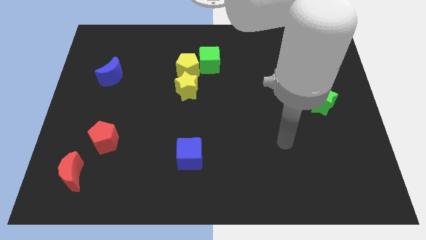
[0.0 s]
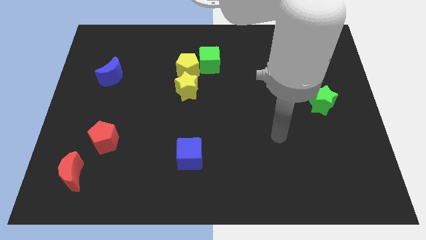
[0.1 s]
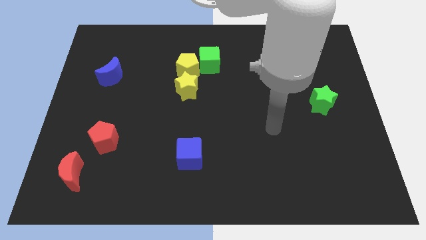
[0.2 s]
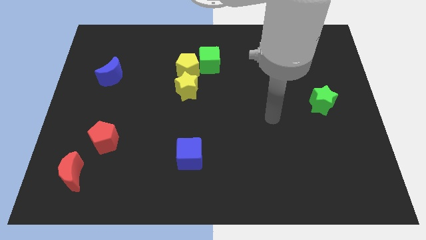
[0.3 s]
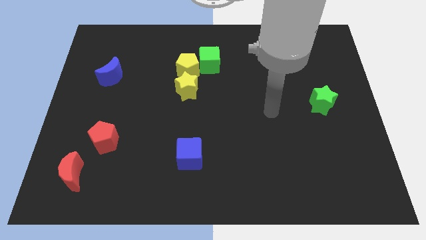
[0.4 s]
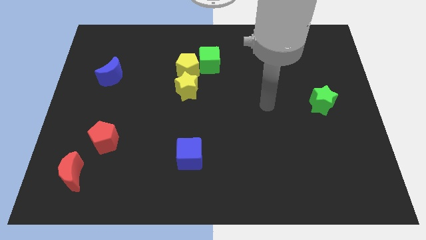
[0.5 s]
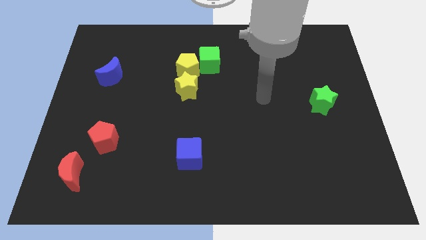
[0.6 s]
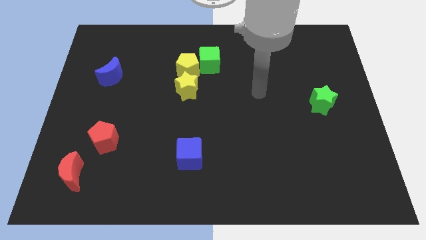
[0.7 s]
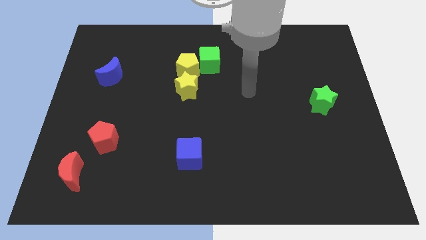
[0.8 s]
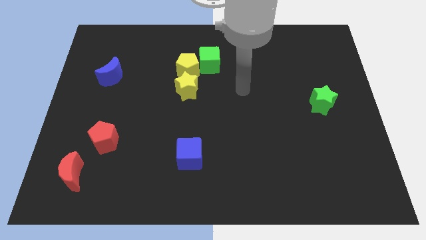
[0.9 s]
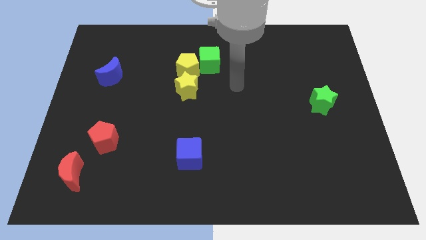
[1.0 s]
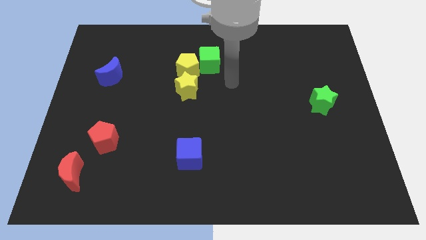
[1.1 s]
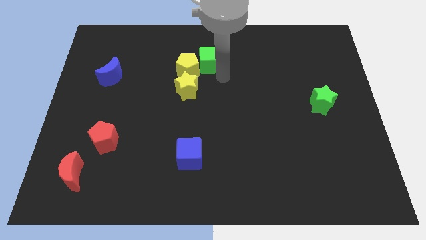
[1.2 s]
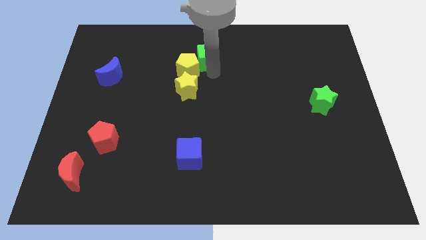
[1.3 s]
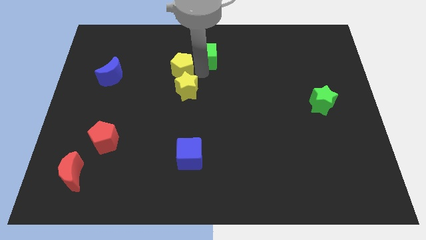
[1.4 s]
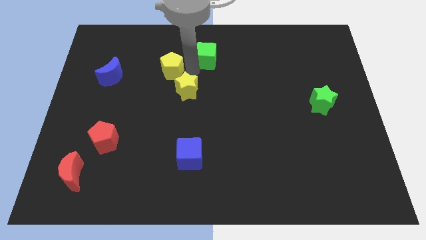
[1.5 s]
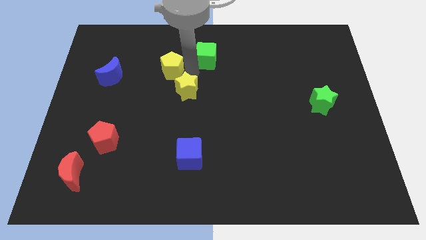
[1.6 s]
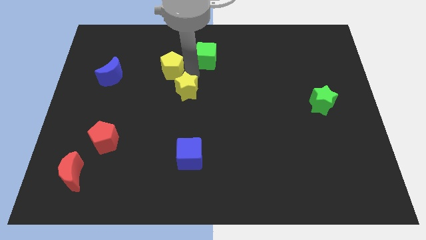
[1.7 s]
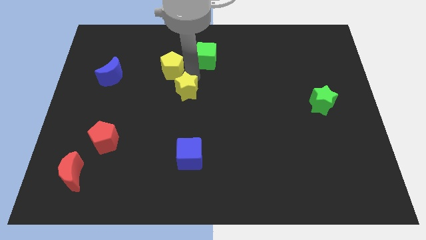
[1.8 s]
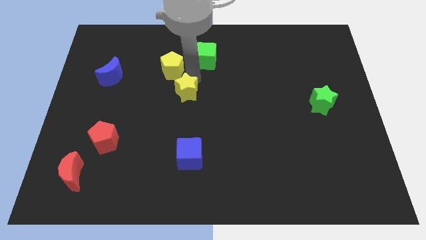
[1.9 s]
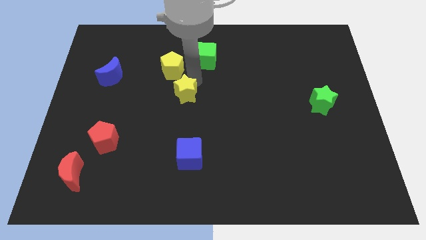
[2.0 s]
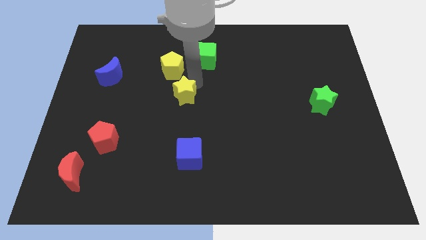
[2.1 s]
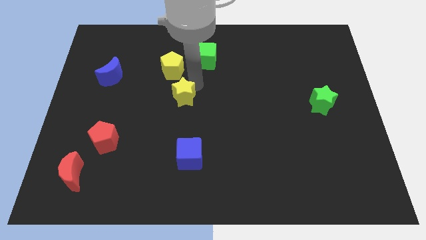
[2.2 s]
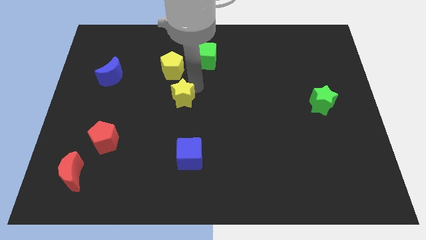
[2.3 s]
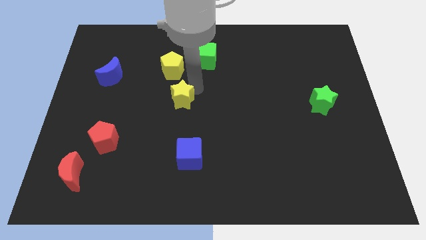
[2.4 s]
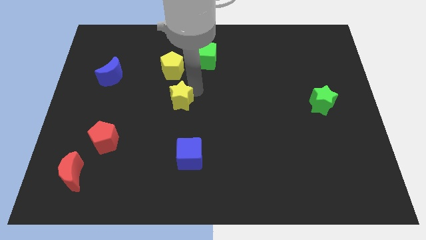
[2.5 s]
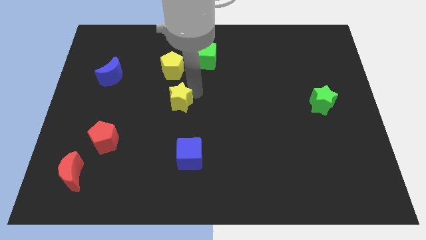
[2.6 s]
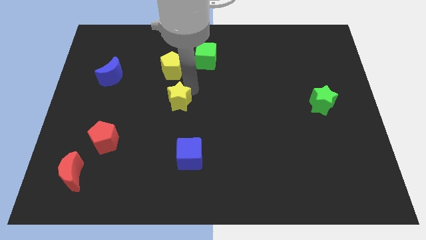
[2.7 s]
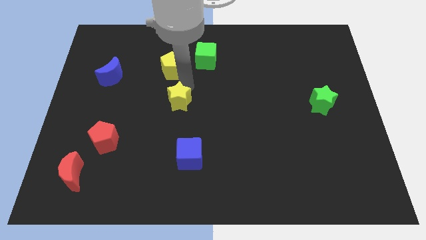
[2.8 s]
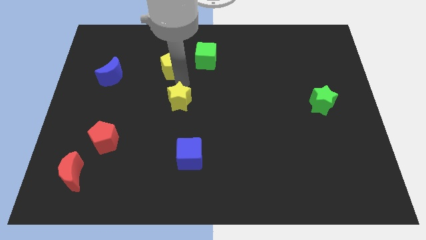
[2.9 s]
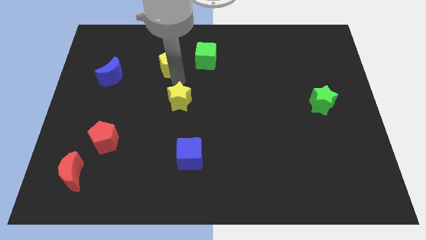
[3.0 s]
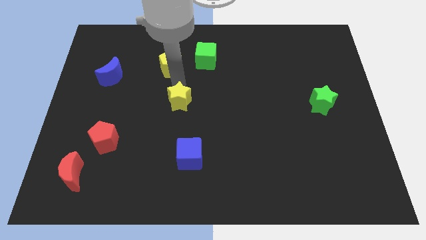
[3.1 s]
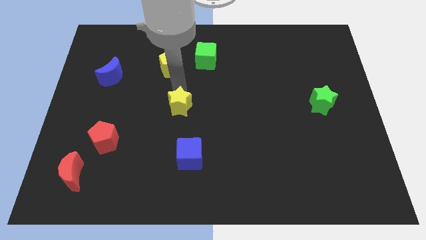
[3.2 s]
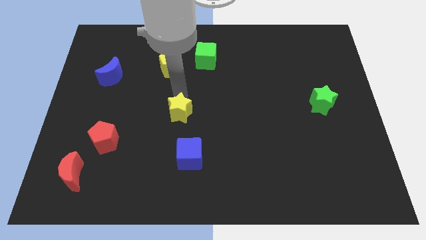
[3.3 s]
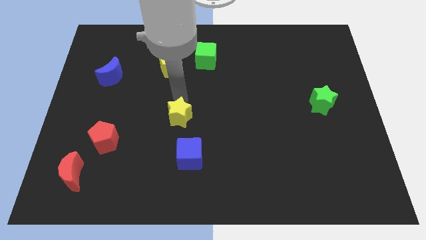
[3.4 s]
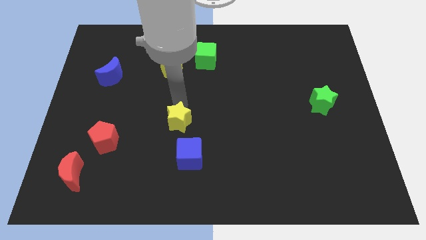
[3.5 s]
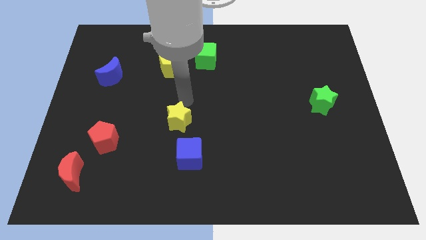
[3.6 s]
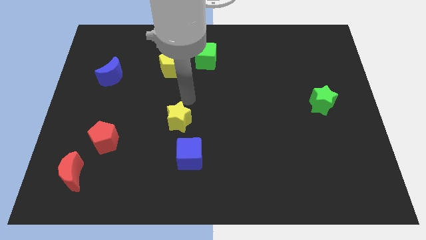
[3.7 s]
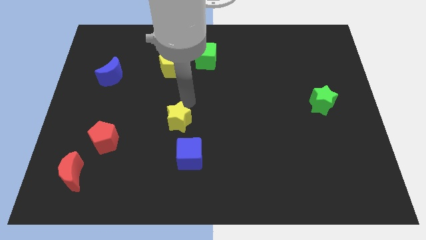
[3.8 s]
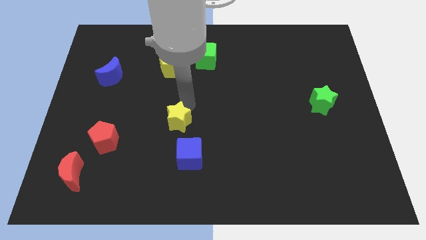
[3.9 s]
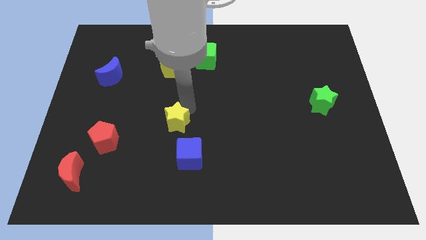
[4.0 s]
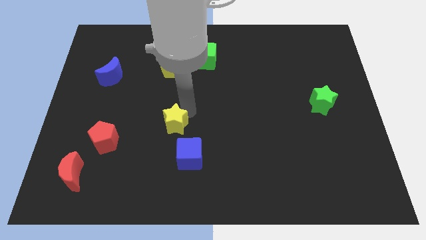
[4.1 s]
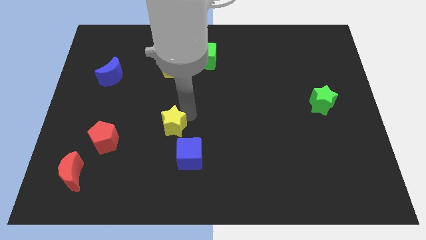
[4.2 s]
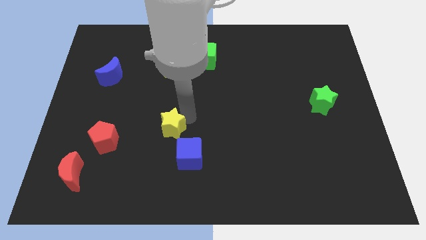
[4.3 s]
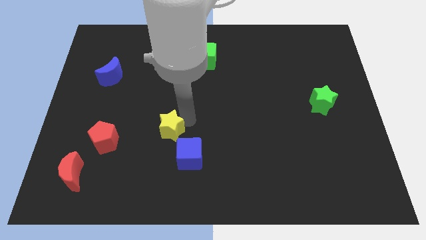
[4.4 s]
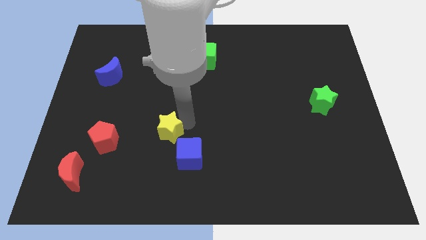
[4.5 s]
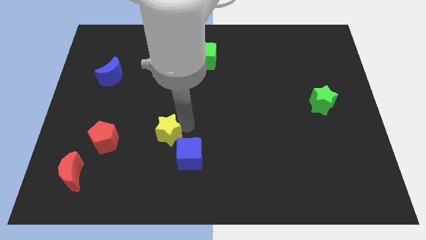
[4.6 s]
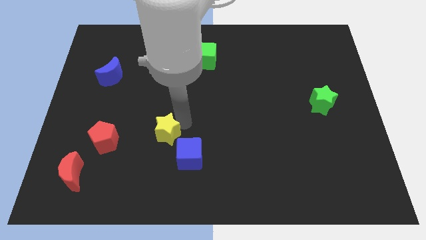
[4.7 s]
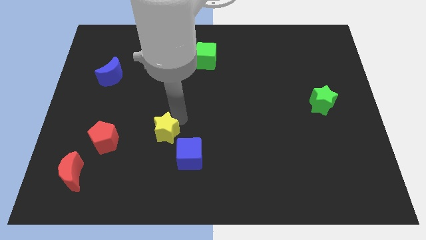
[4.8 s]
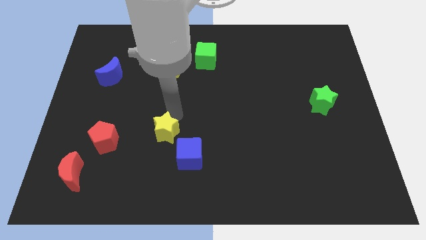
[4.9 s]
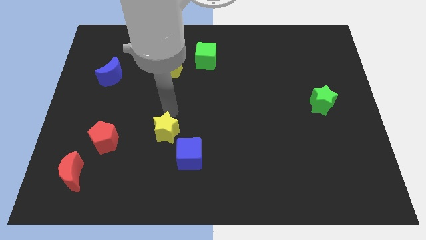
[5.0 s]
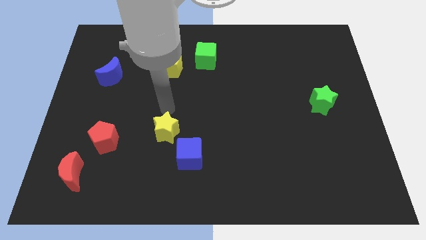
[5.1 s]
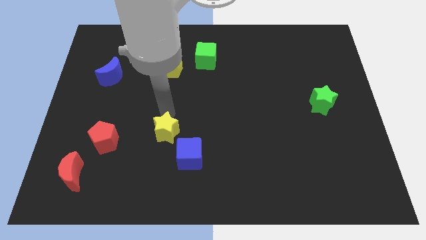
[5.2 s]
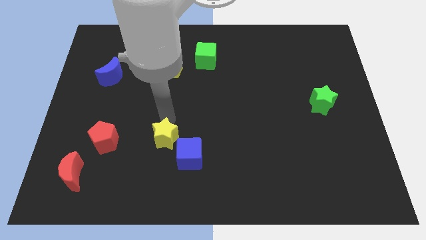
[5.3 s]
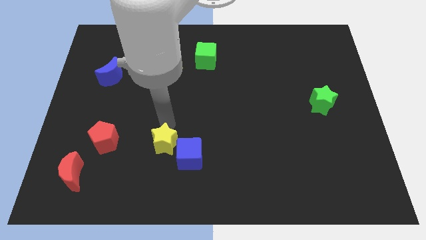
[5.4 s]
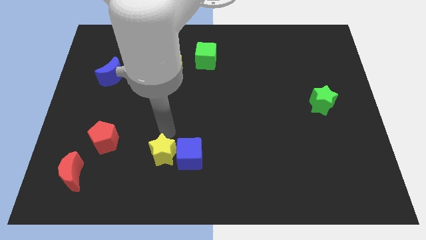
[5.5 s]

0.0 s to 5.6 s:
slide the yellow star to the bottom left side of the blue cube

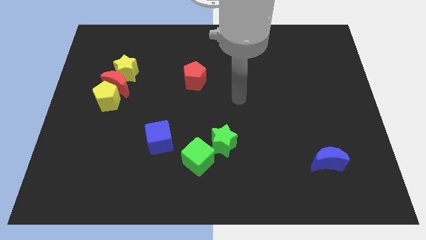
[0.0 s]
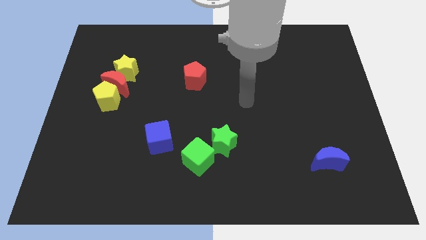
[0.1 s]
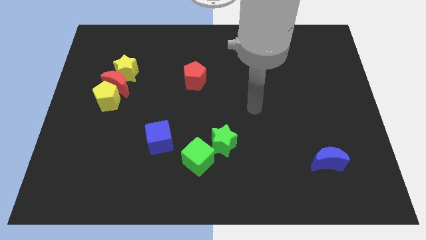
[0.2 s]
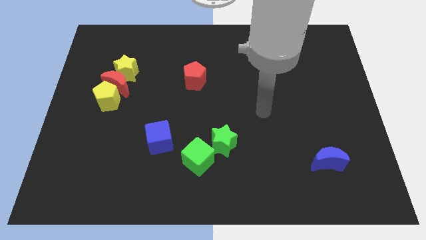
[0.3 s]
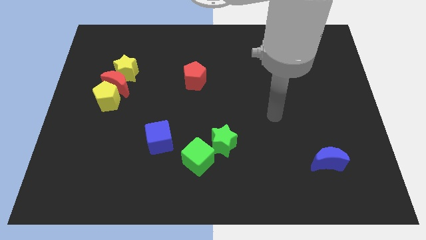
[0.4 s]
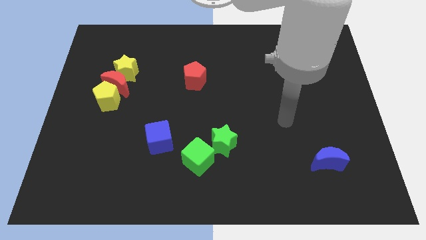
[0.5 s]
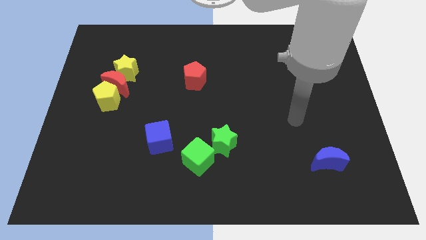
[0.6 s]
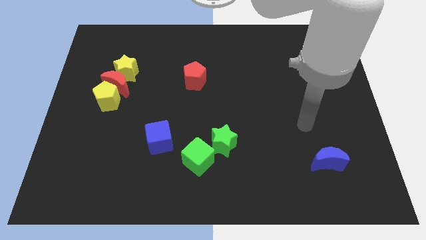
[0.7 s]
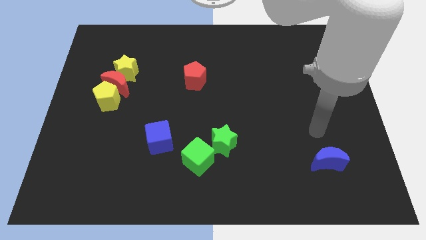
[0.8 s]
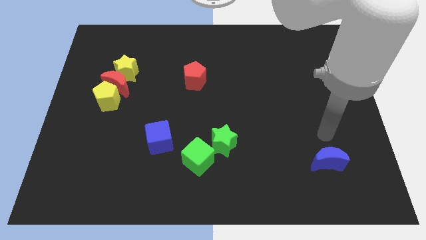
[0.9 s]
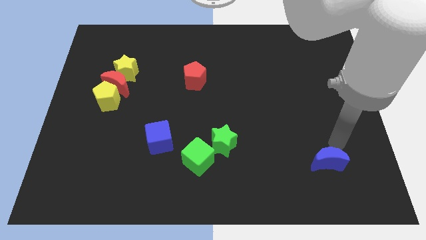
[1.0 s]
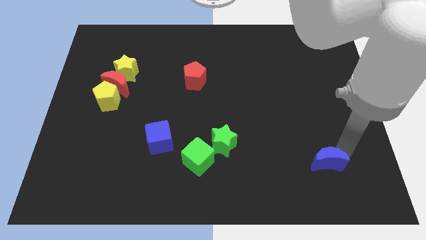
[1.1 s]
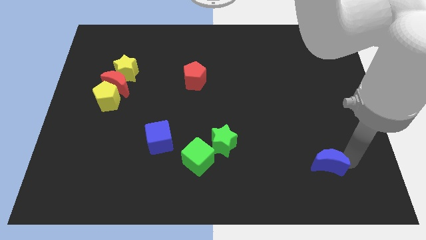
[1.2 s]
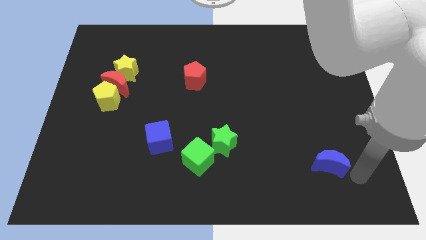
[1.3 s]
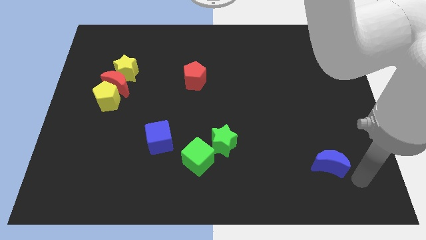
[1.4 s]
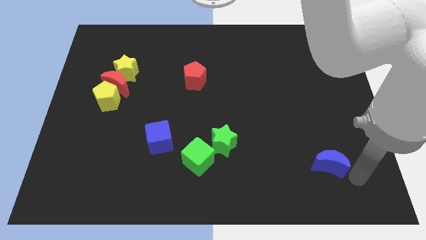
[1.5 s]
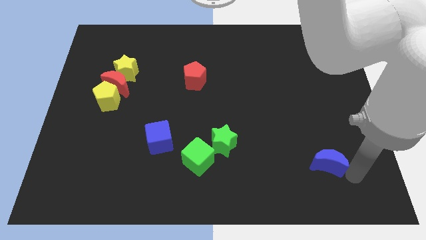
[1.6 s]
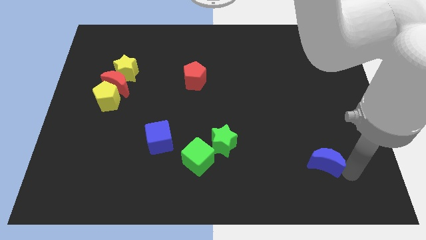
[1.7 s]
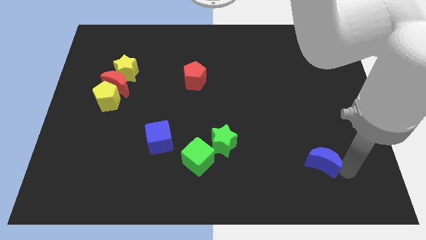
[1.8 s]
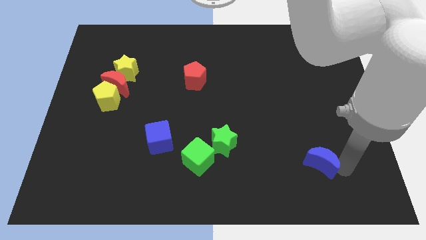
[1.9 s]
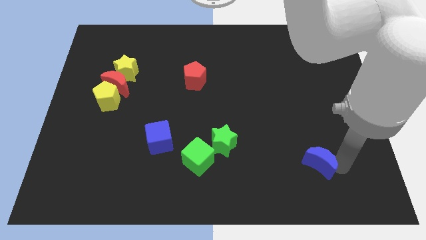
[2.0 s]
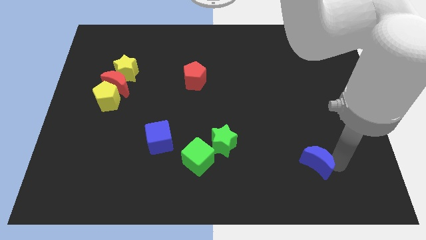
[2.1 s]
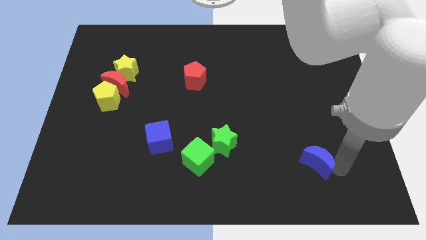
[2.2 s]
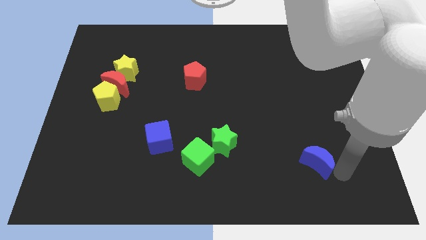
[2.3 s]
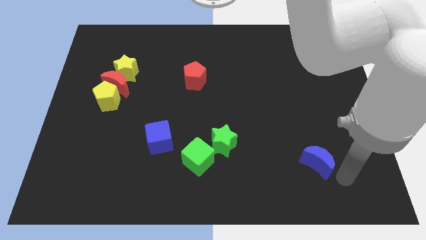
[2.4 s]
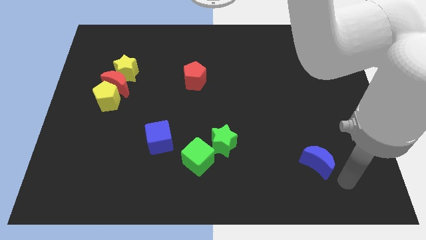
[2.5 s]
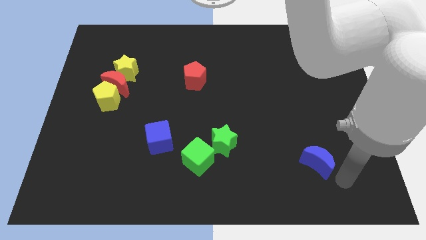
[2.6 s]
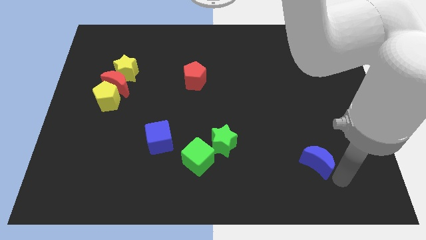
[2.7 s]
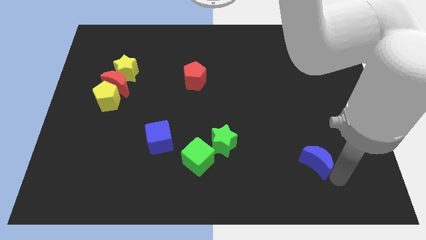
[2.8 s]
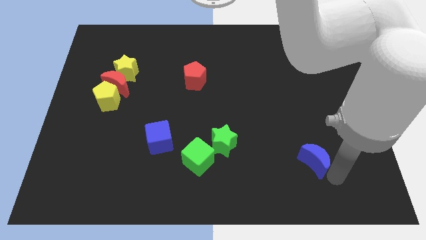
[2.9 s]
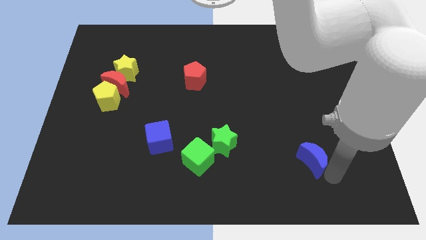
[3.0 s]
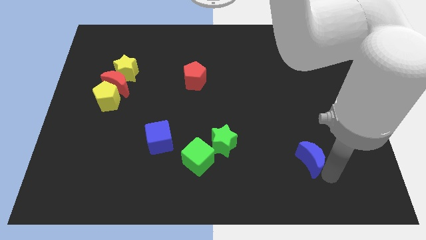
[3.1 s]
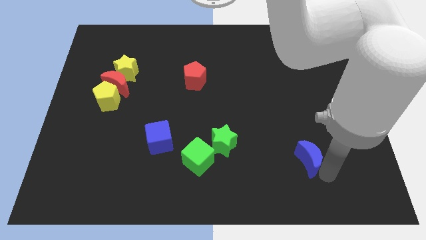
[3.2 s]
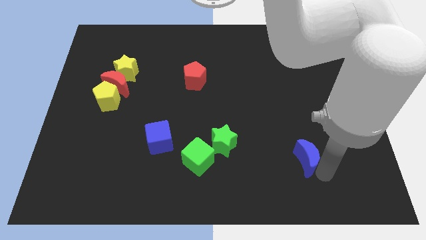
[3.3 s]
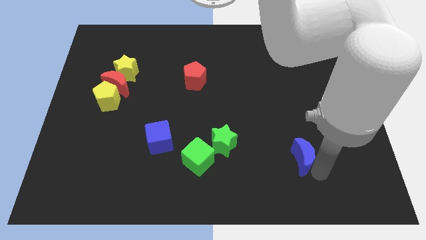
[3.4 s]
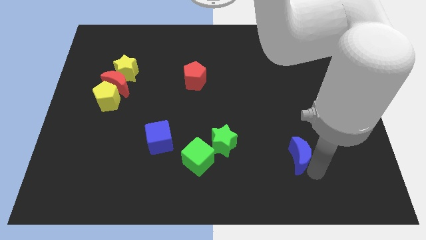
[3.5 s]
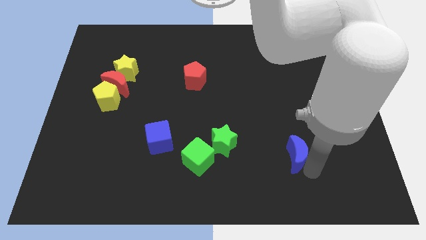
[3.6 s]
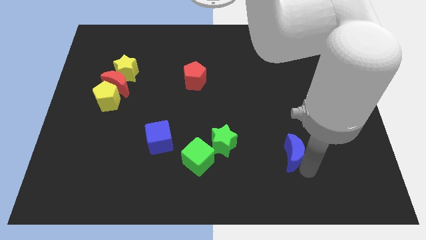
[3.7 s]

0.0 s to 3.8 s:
slide the blue moon just right of the green star
